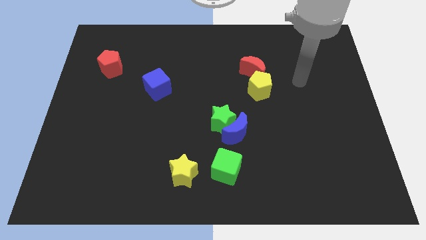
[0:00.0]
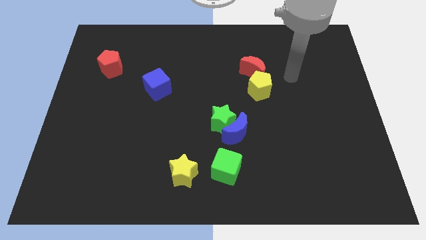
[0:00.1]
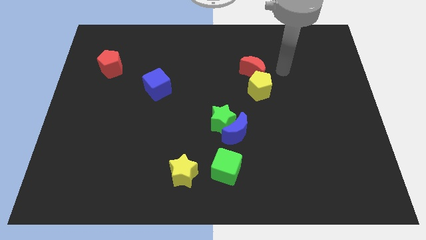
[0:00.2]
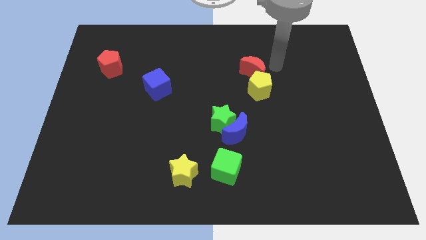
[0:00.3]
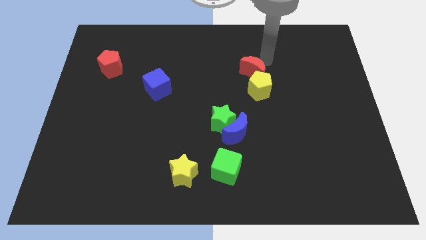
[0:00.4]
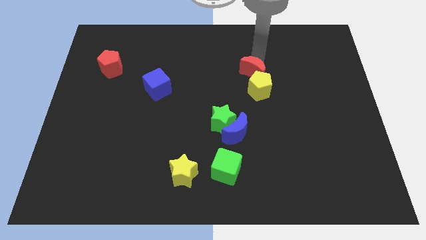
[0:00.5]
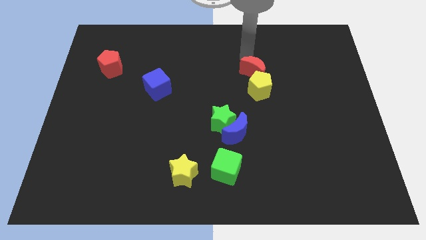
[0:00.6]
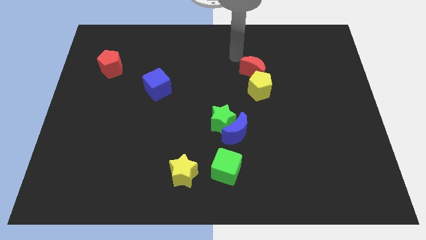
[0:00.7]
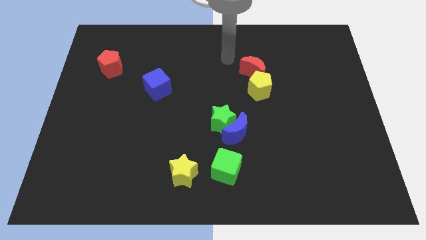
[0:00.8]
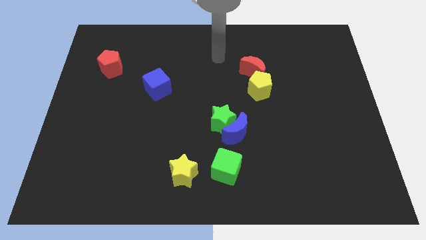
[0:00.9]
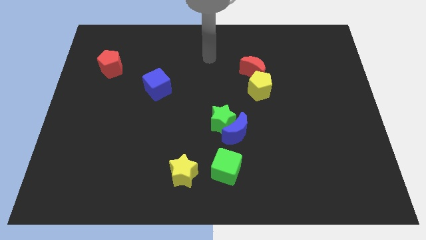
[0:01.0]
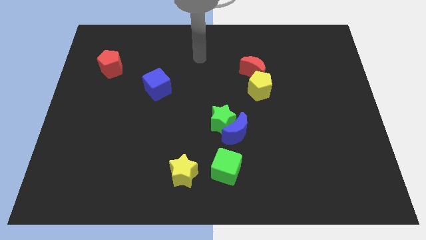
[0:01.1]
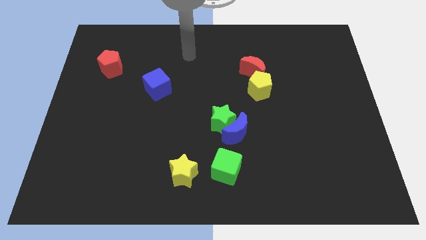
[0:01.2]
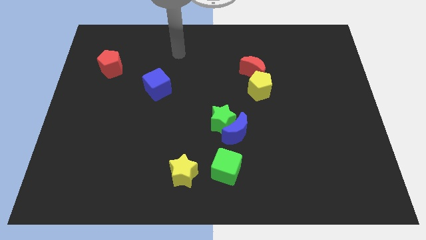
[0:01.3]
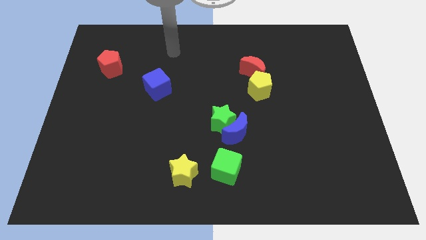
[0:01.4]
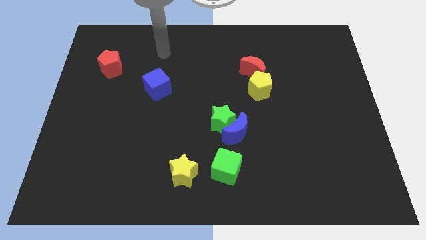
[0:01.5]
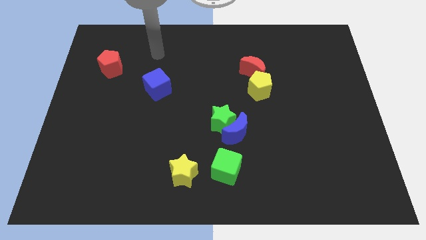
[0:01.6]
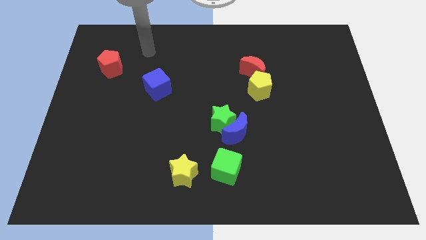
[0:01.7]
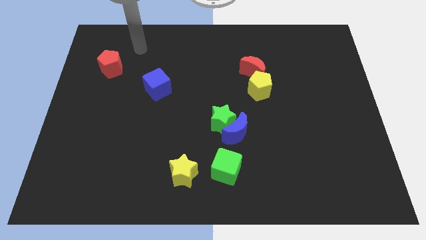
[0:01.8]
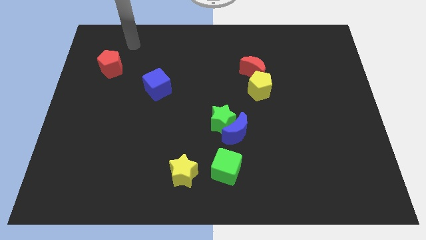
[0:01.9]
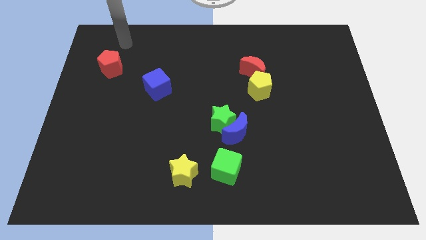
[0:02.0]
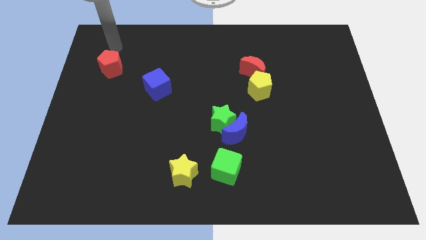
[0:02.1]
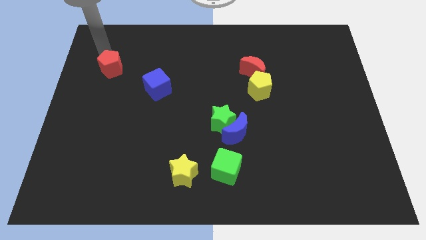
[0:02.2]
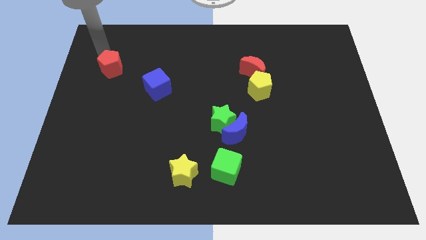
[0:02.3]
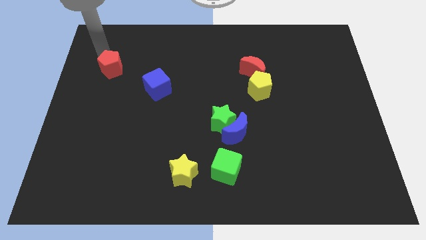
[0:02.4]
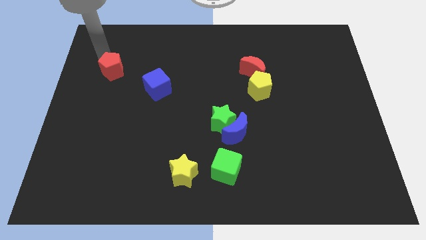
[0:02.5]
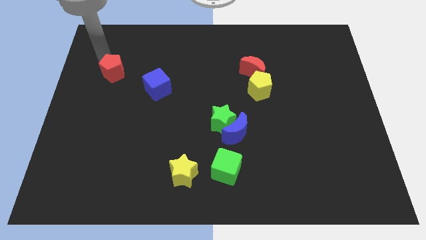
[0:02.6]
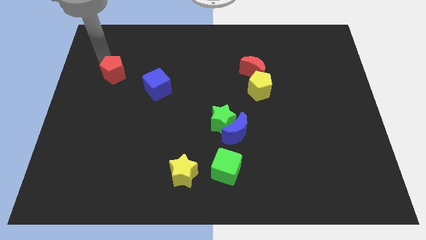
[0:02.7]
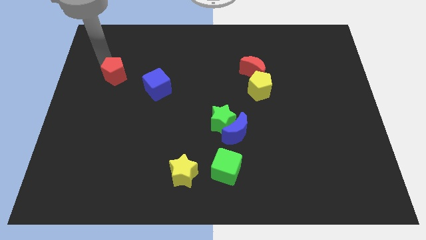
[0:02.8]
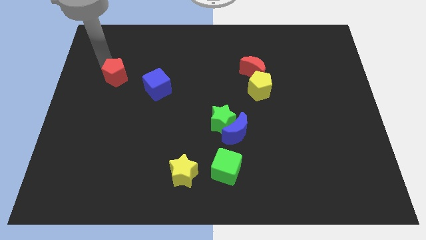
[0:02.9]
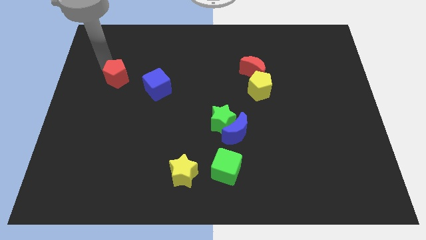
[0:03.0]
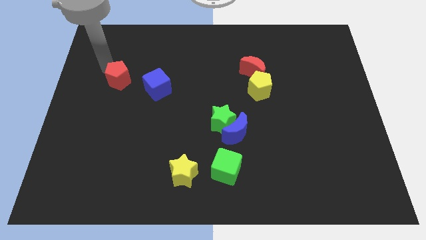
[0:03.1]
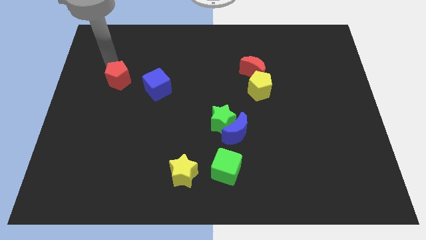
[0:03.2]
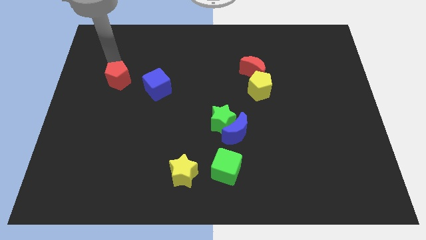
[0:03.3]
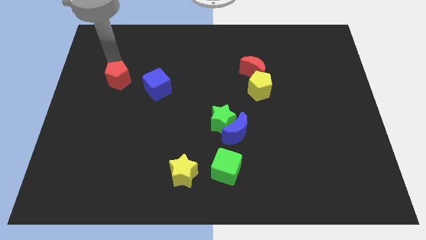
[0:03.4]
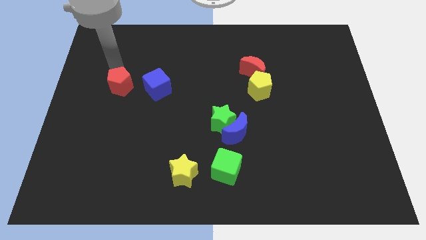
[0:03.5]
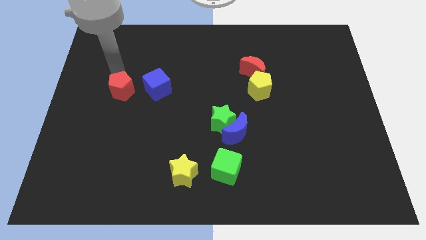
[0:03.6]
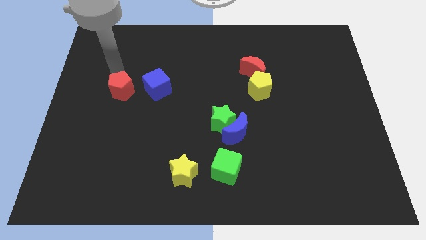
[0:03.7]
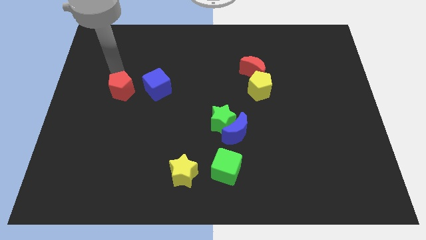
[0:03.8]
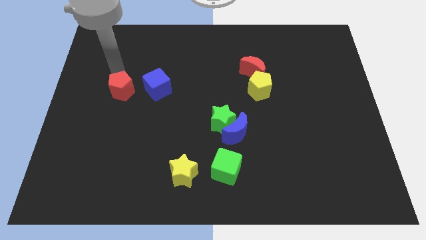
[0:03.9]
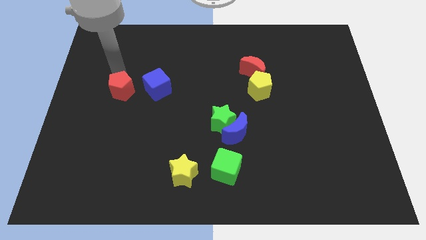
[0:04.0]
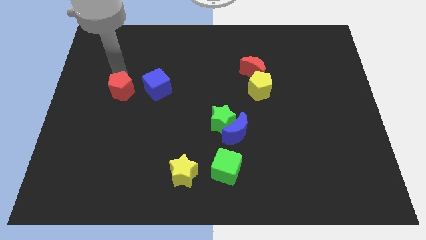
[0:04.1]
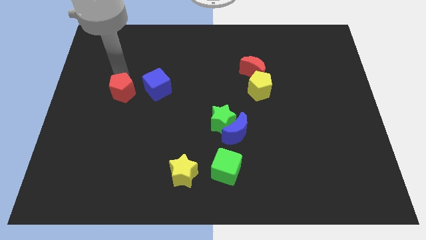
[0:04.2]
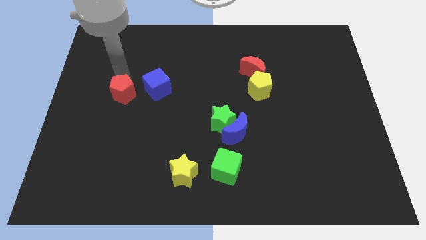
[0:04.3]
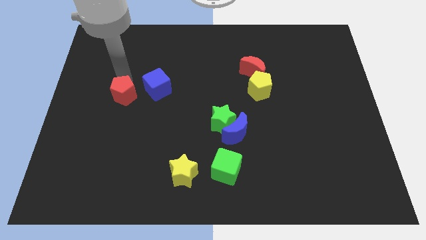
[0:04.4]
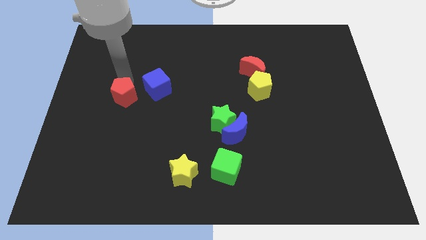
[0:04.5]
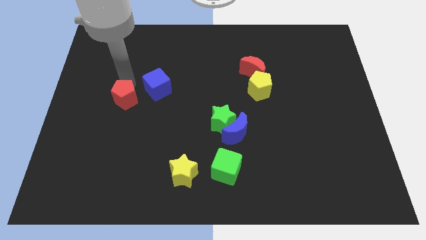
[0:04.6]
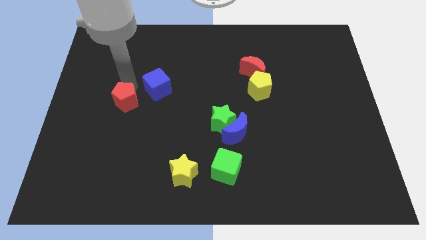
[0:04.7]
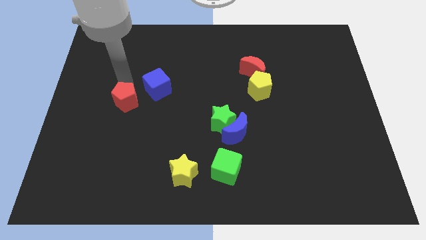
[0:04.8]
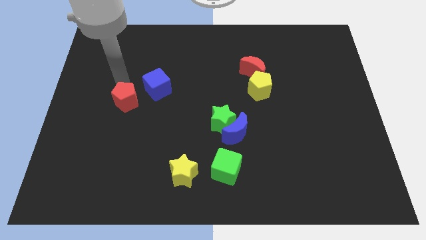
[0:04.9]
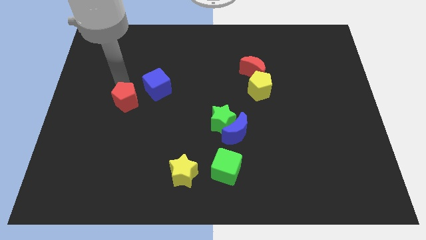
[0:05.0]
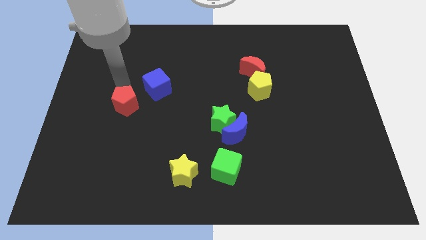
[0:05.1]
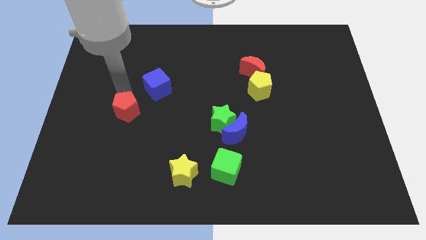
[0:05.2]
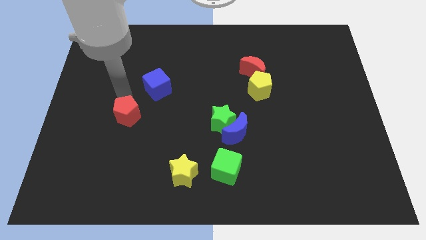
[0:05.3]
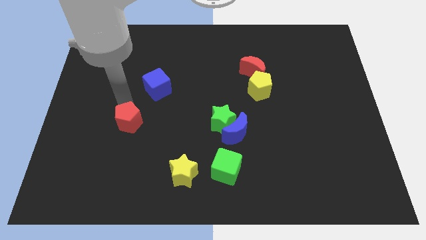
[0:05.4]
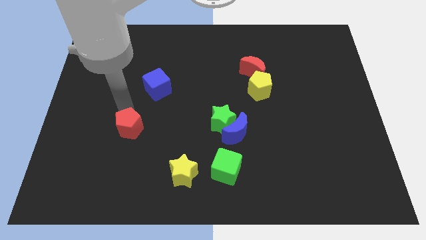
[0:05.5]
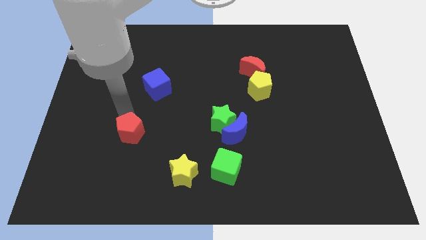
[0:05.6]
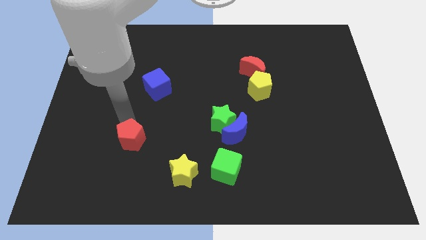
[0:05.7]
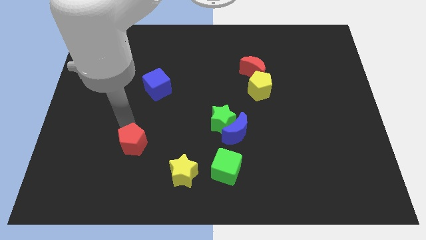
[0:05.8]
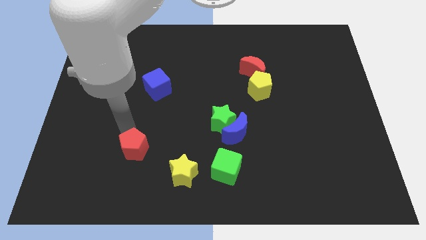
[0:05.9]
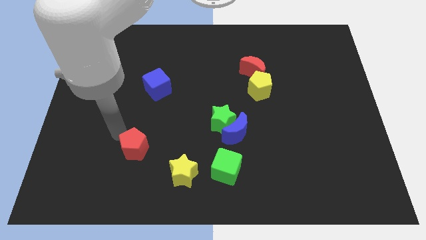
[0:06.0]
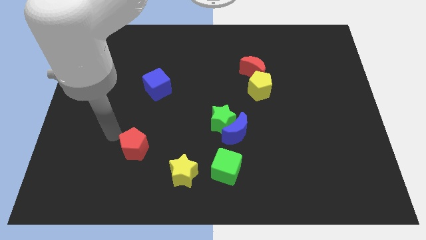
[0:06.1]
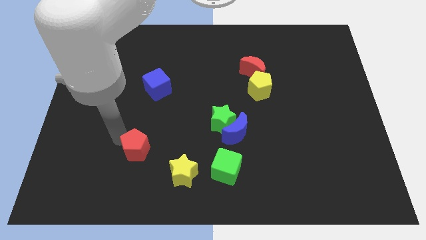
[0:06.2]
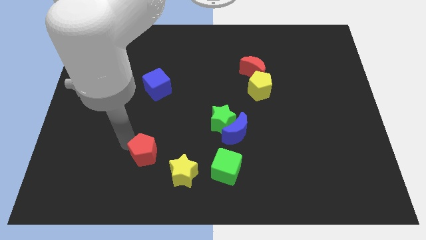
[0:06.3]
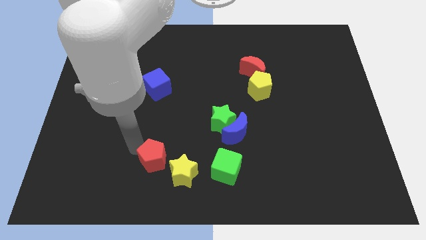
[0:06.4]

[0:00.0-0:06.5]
slide the red pentagon to the left side of the green cube

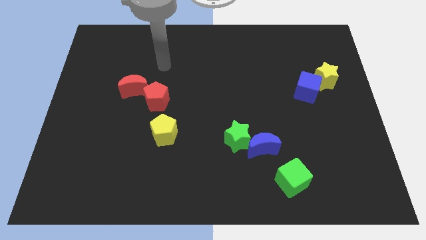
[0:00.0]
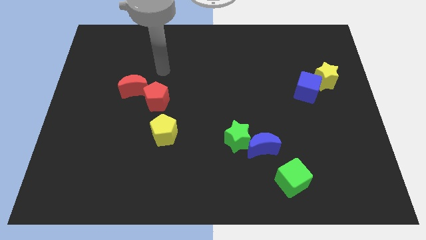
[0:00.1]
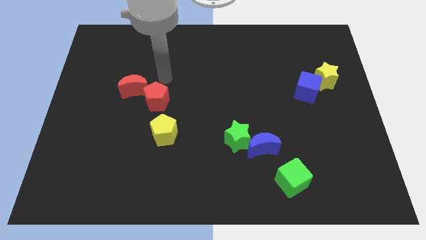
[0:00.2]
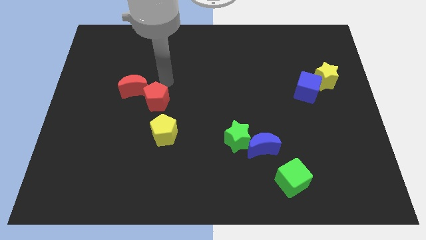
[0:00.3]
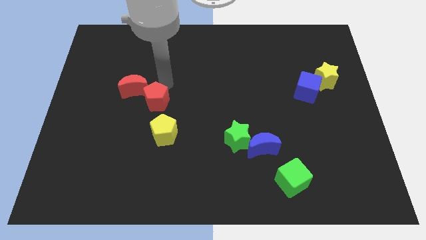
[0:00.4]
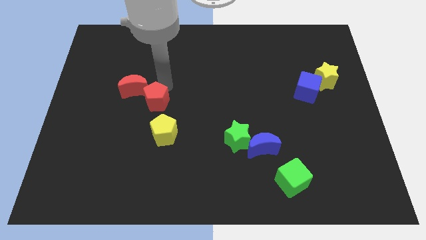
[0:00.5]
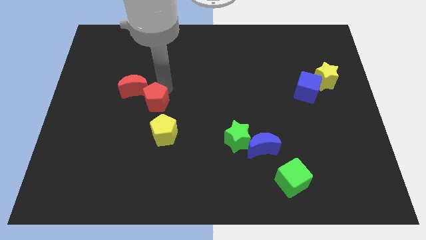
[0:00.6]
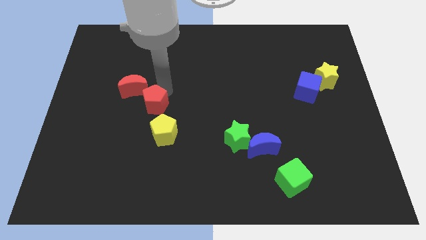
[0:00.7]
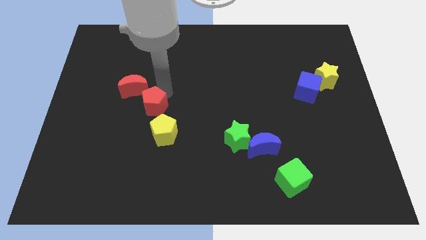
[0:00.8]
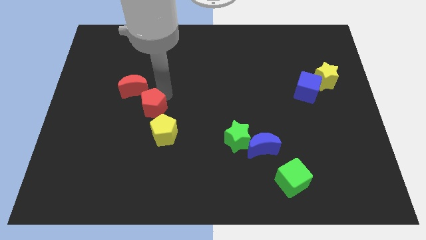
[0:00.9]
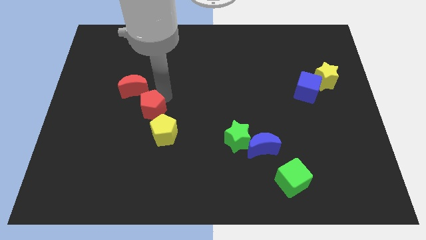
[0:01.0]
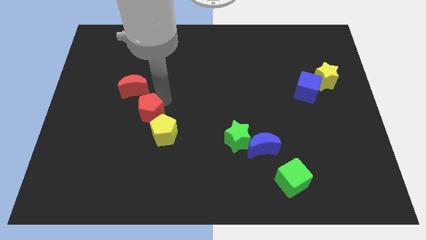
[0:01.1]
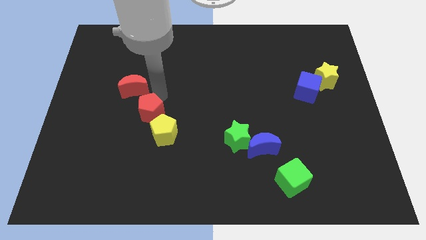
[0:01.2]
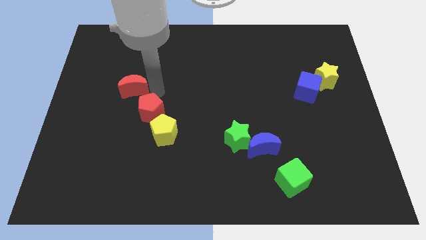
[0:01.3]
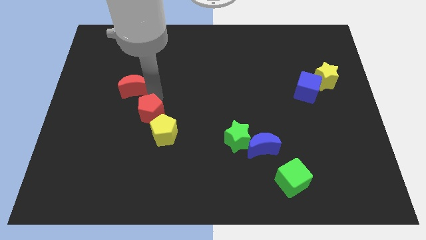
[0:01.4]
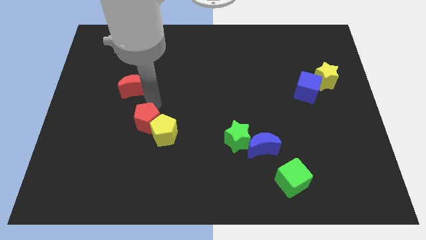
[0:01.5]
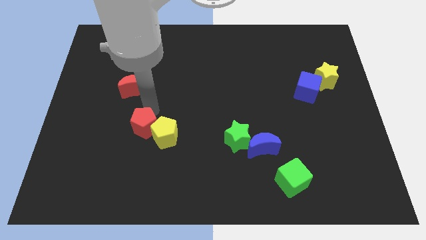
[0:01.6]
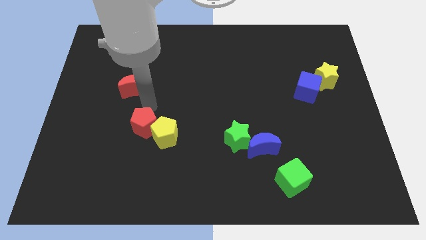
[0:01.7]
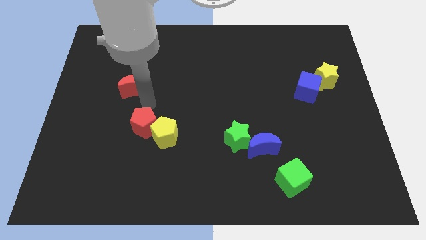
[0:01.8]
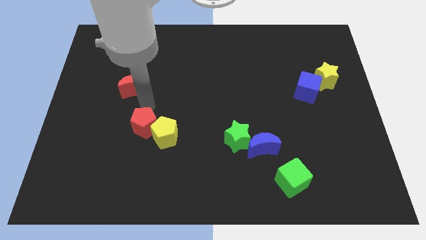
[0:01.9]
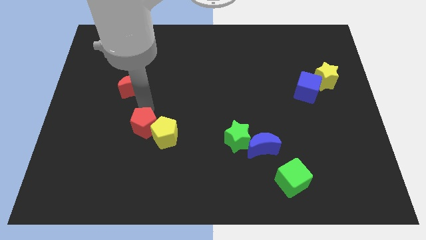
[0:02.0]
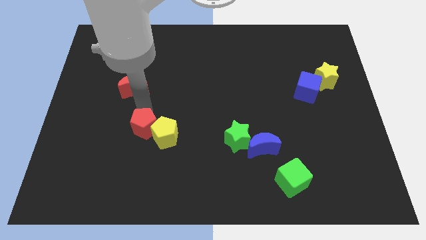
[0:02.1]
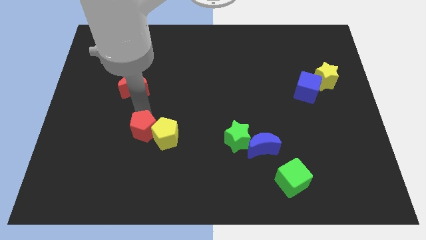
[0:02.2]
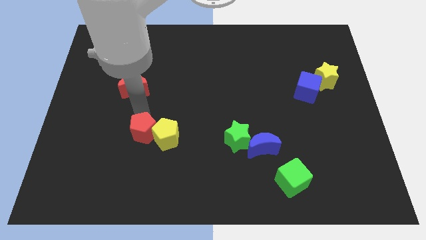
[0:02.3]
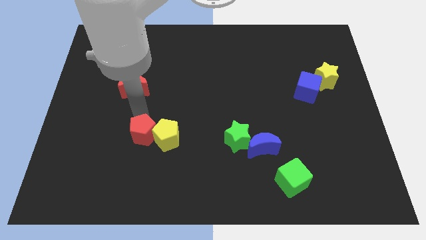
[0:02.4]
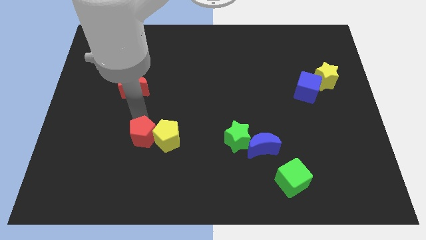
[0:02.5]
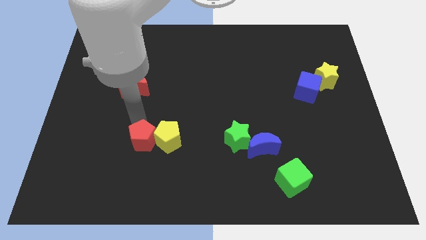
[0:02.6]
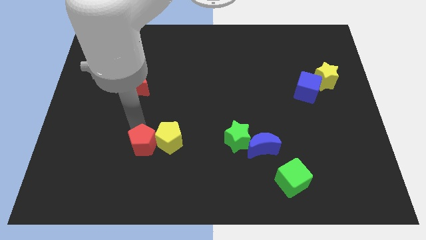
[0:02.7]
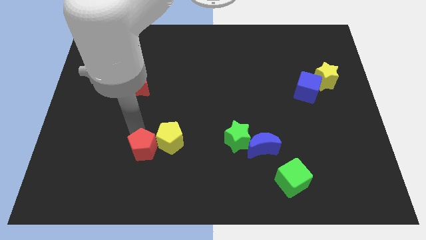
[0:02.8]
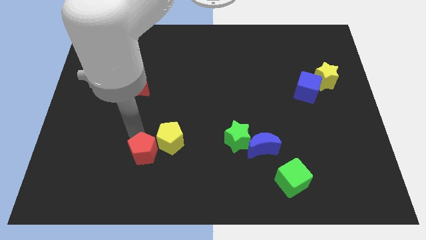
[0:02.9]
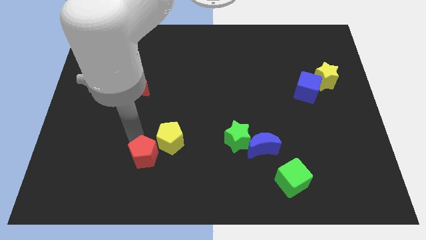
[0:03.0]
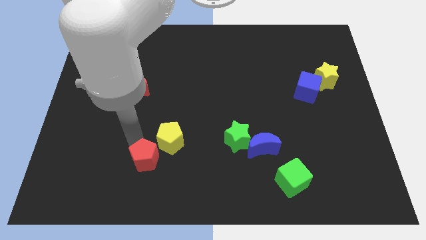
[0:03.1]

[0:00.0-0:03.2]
move the red pentagon below the yellow pentagon
